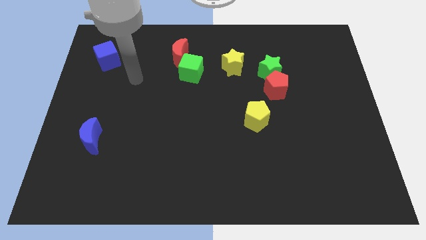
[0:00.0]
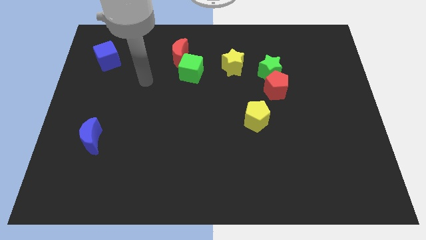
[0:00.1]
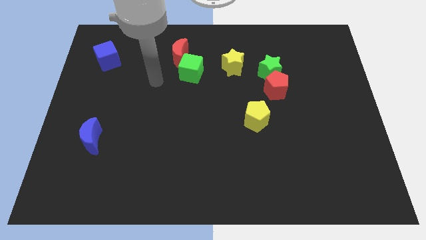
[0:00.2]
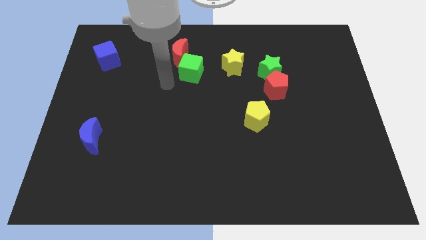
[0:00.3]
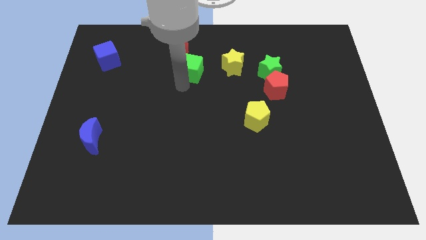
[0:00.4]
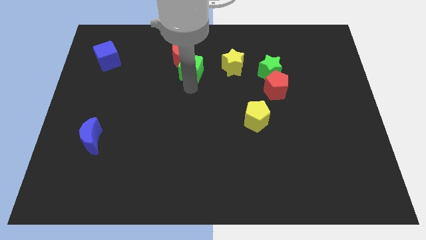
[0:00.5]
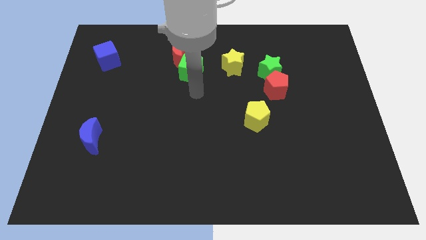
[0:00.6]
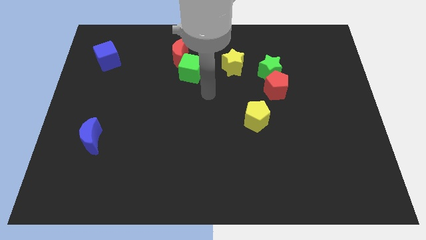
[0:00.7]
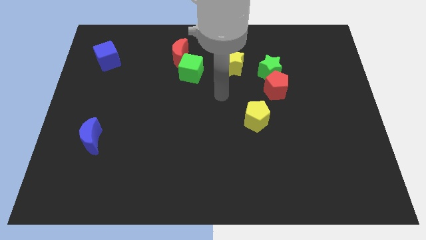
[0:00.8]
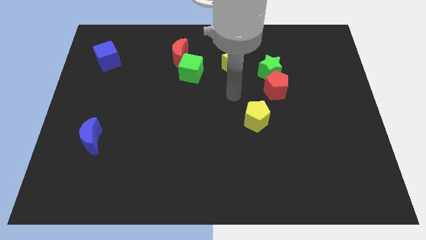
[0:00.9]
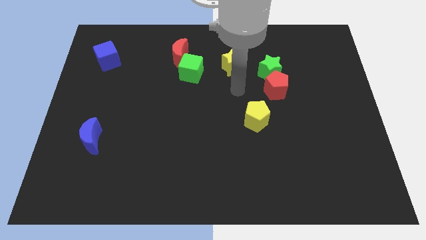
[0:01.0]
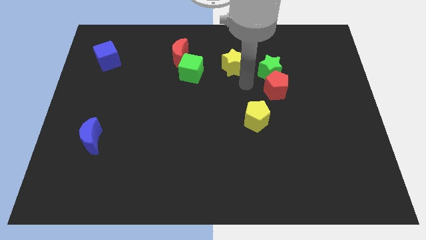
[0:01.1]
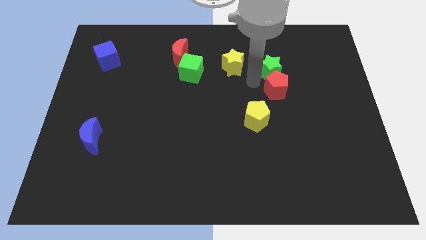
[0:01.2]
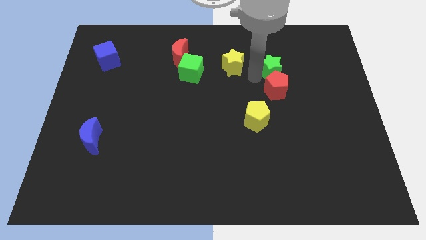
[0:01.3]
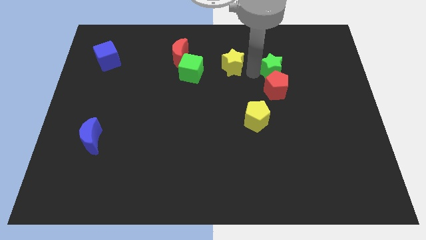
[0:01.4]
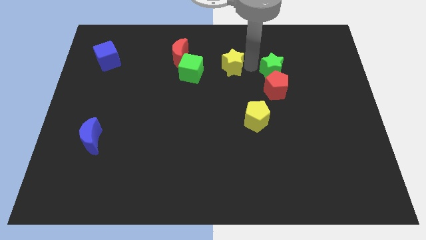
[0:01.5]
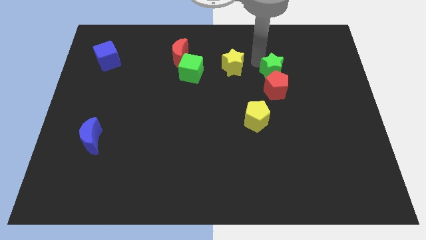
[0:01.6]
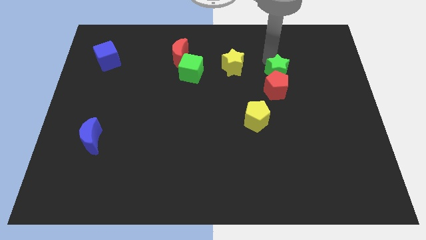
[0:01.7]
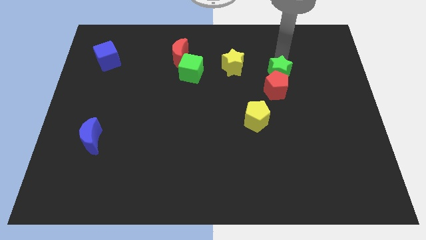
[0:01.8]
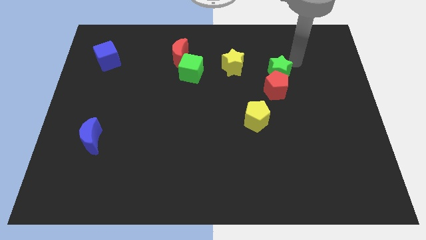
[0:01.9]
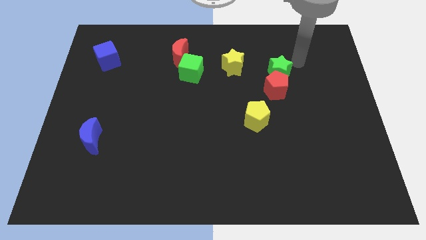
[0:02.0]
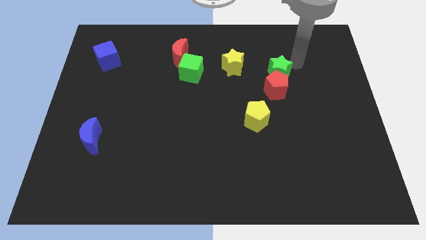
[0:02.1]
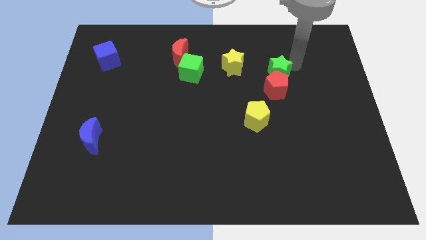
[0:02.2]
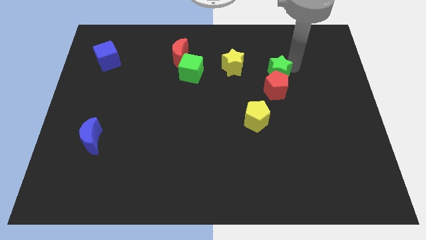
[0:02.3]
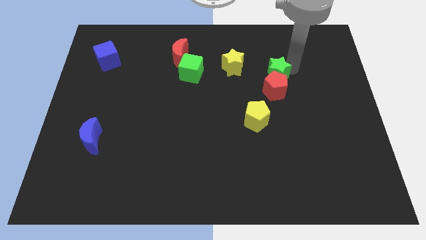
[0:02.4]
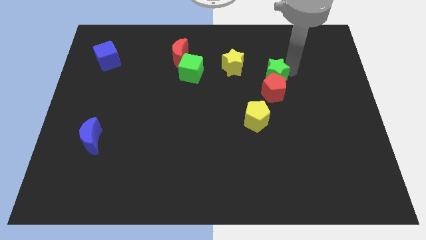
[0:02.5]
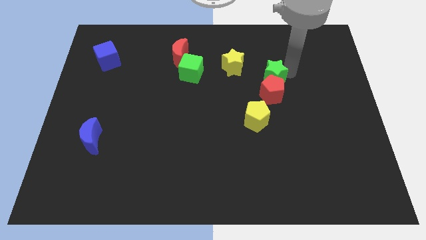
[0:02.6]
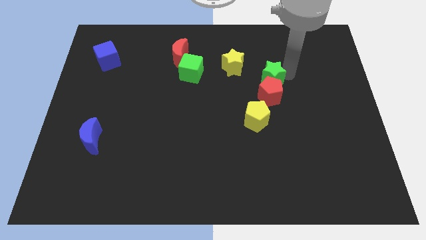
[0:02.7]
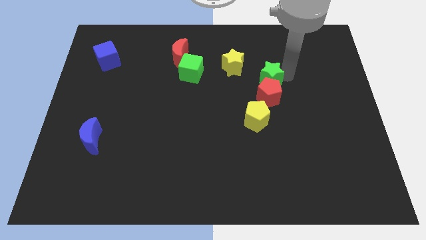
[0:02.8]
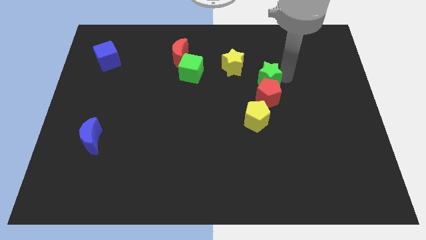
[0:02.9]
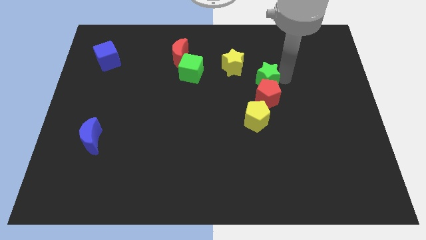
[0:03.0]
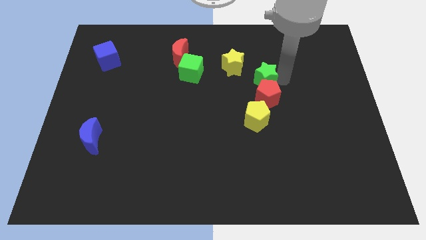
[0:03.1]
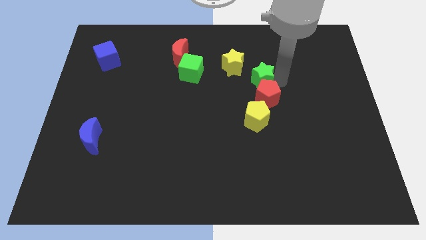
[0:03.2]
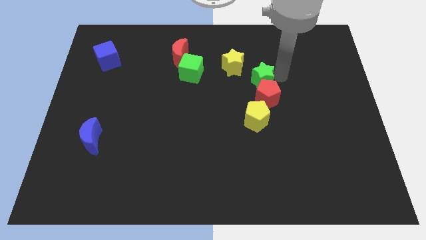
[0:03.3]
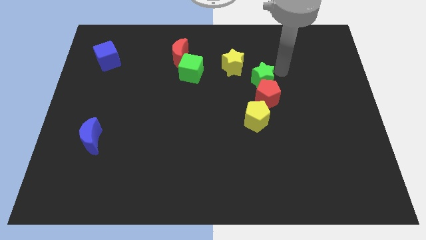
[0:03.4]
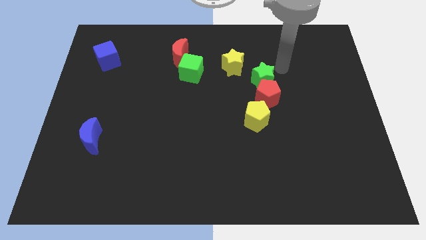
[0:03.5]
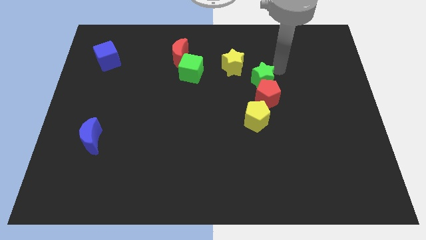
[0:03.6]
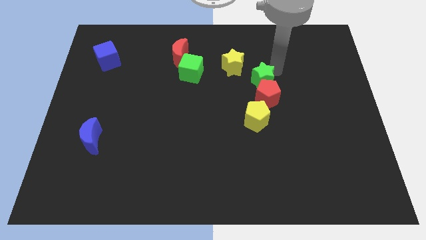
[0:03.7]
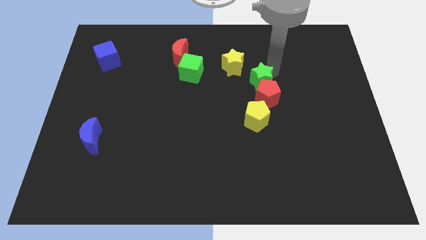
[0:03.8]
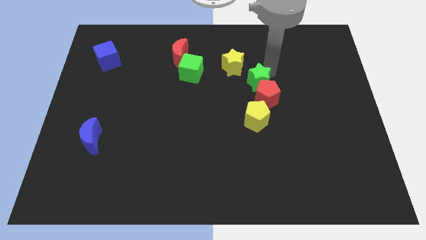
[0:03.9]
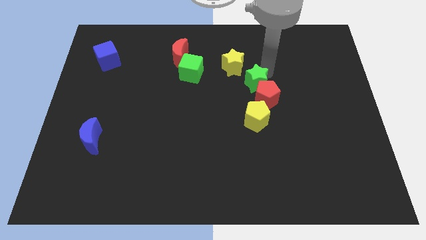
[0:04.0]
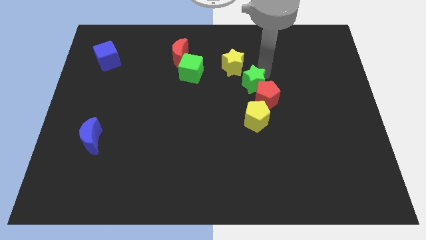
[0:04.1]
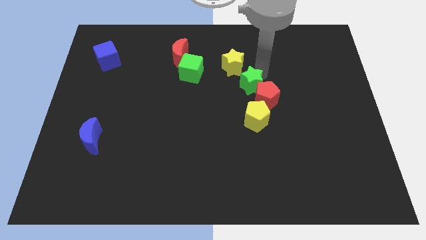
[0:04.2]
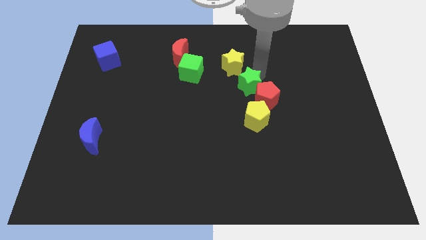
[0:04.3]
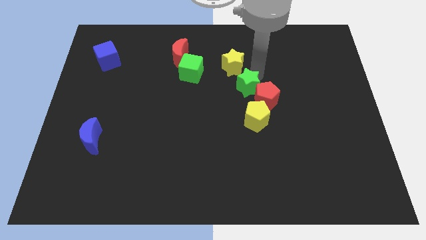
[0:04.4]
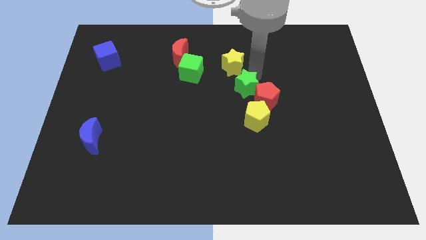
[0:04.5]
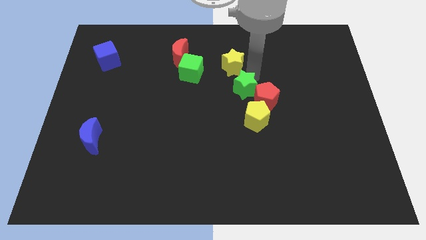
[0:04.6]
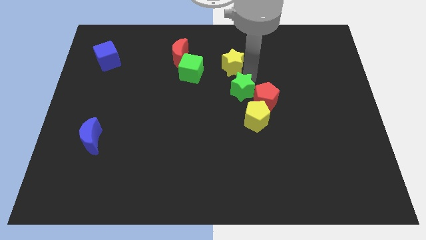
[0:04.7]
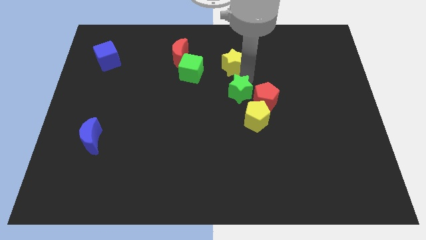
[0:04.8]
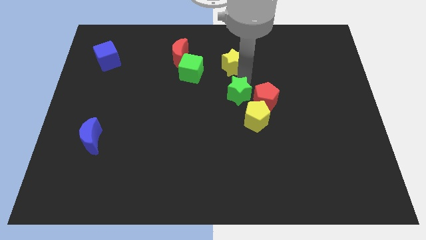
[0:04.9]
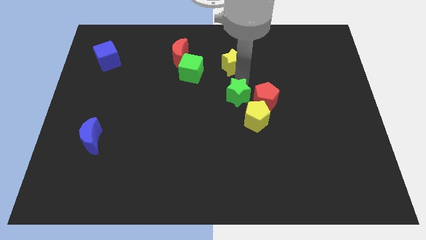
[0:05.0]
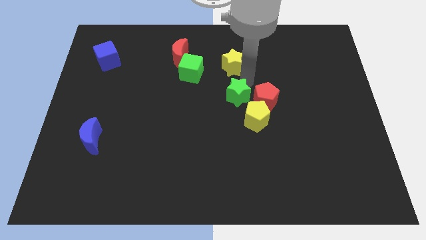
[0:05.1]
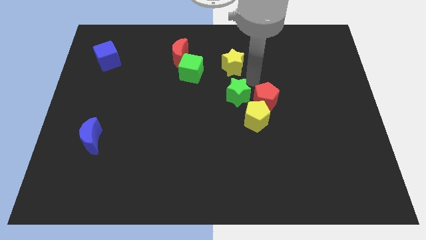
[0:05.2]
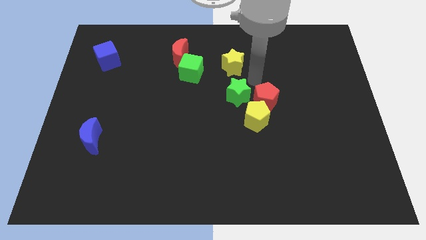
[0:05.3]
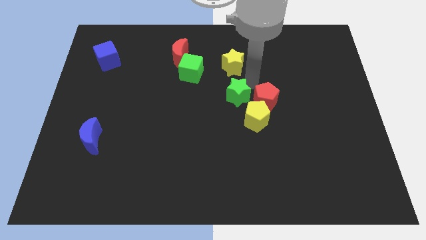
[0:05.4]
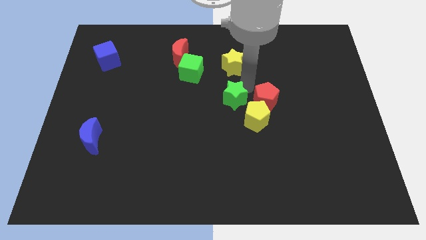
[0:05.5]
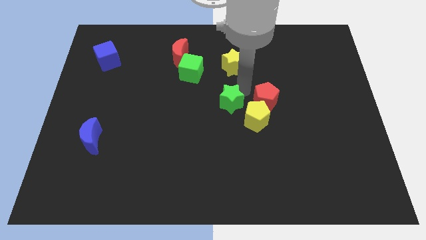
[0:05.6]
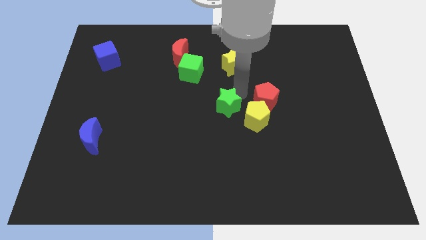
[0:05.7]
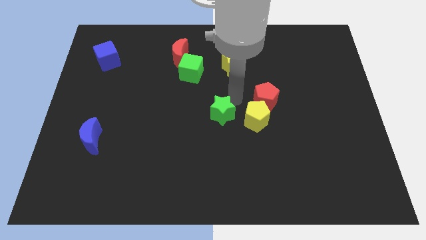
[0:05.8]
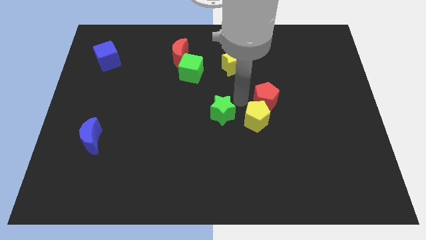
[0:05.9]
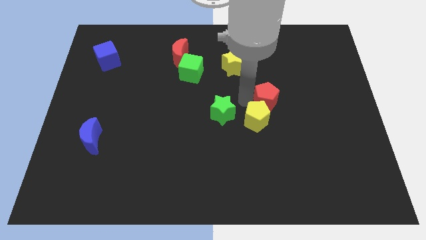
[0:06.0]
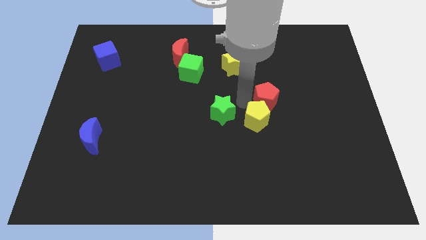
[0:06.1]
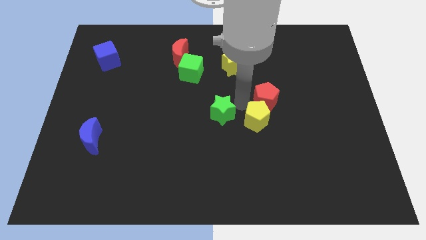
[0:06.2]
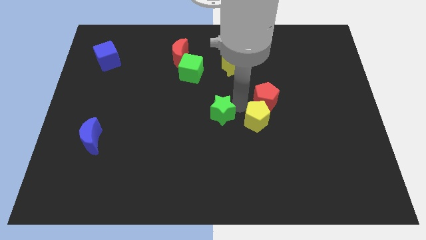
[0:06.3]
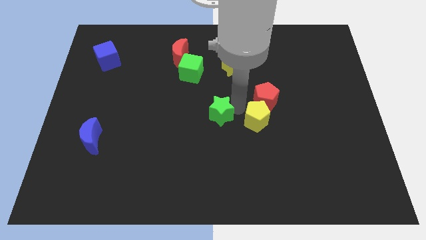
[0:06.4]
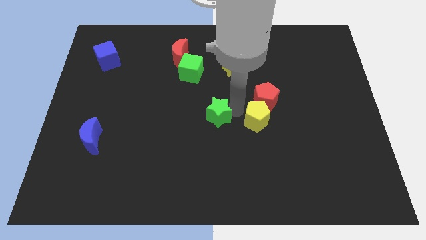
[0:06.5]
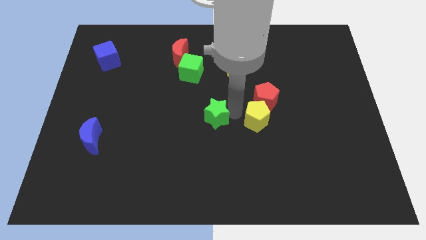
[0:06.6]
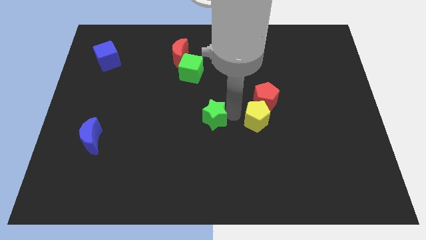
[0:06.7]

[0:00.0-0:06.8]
push the green star down and left

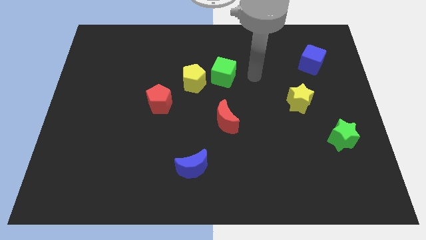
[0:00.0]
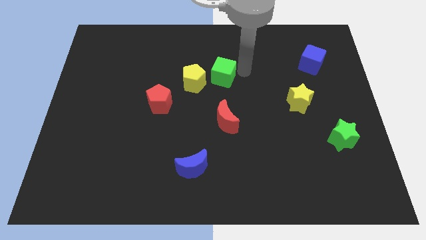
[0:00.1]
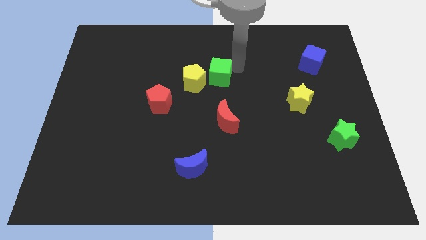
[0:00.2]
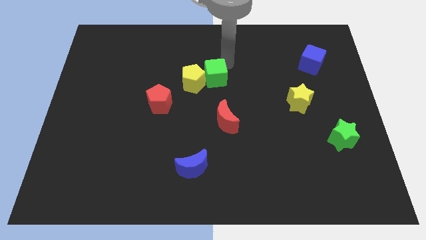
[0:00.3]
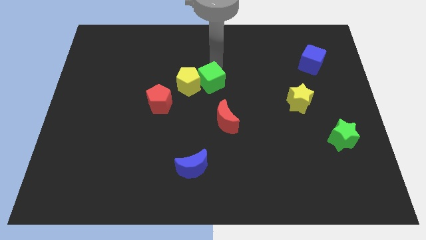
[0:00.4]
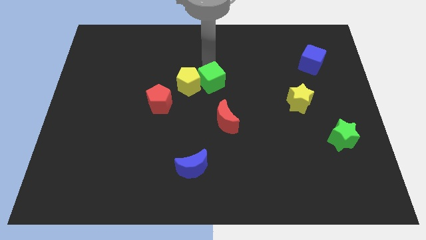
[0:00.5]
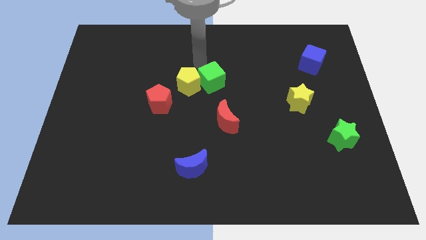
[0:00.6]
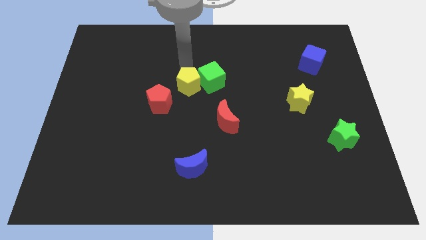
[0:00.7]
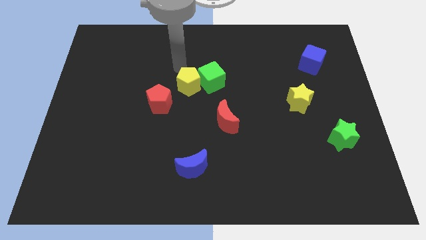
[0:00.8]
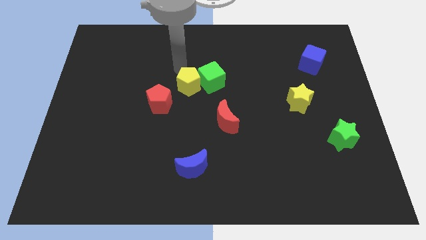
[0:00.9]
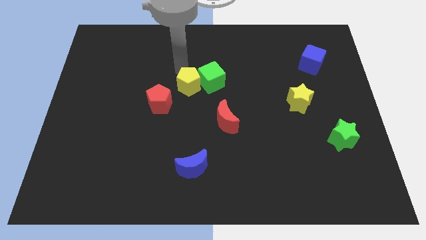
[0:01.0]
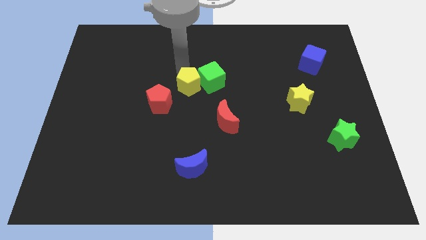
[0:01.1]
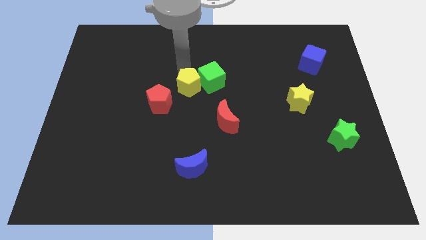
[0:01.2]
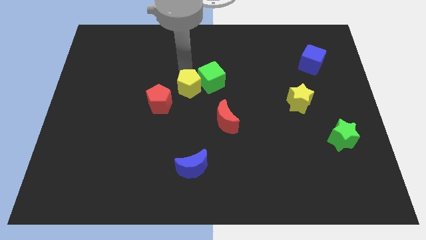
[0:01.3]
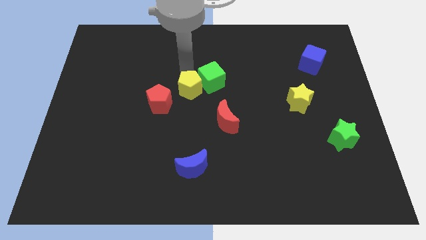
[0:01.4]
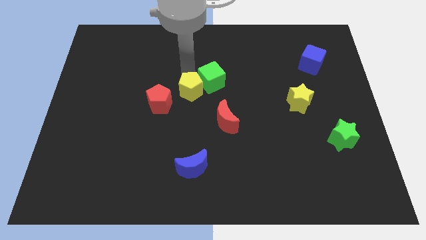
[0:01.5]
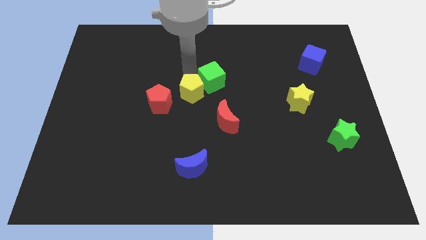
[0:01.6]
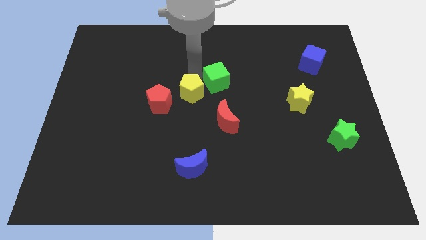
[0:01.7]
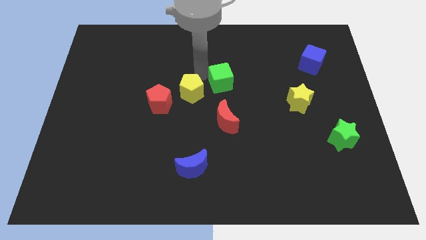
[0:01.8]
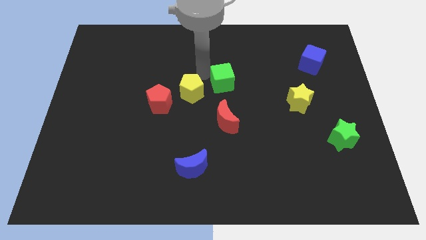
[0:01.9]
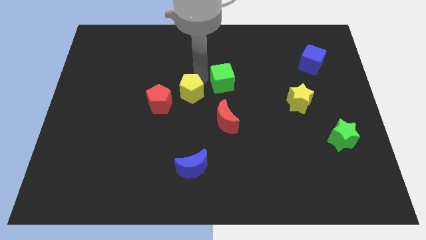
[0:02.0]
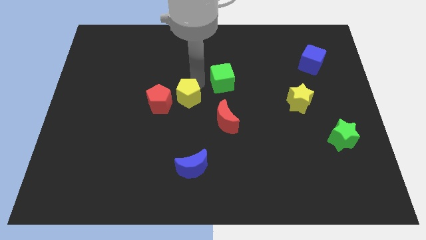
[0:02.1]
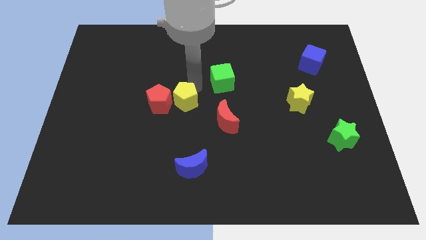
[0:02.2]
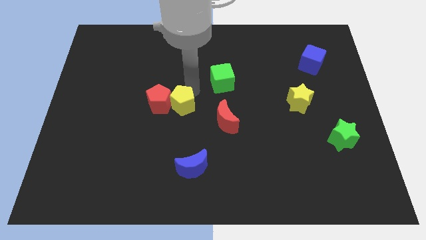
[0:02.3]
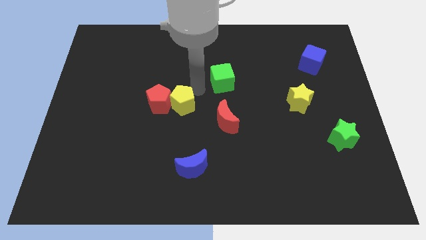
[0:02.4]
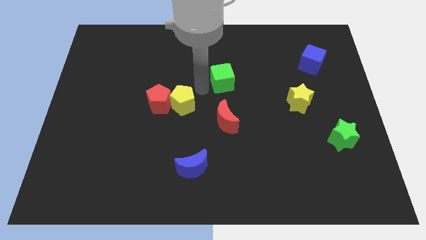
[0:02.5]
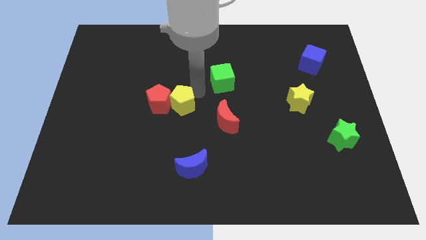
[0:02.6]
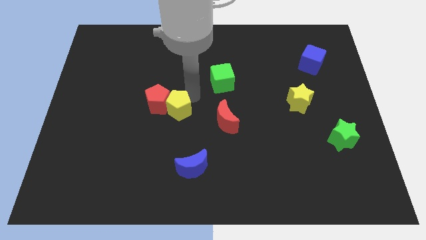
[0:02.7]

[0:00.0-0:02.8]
move the yellow pentagon down and then to the left a little bit
